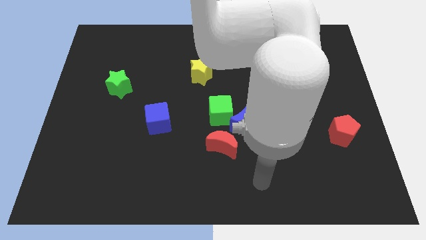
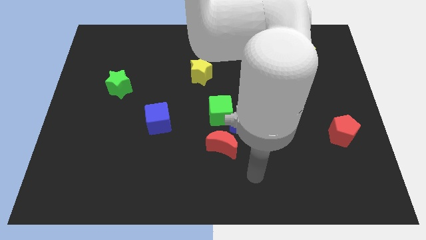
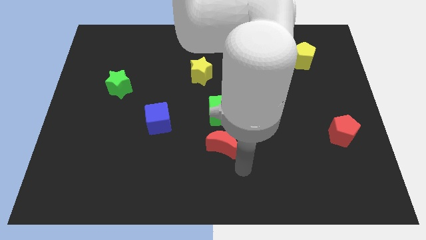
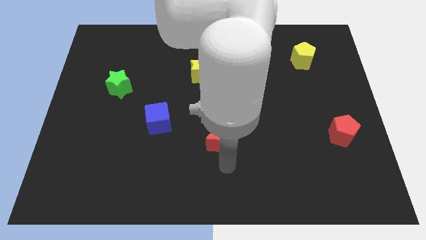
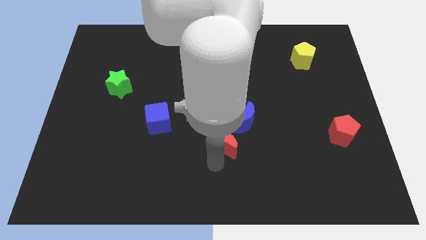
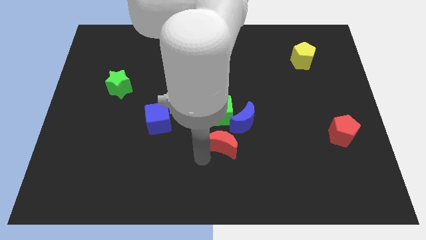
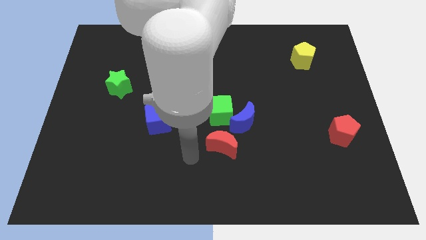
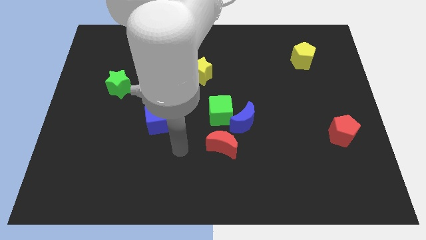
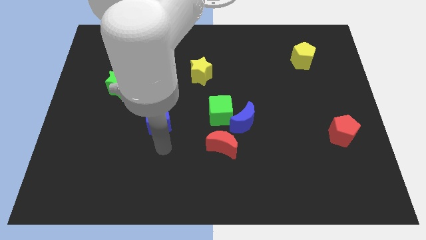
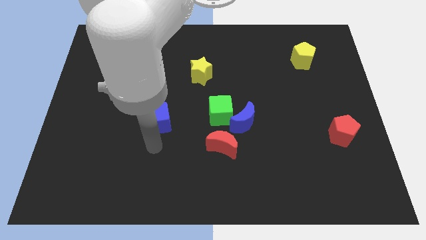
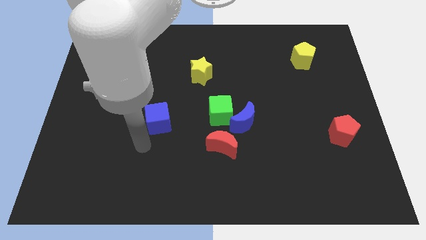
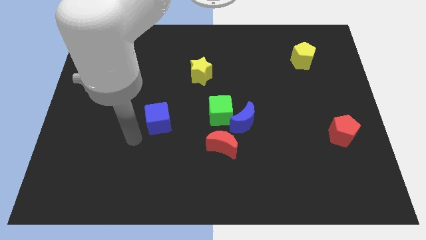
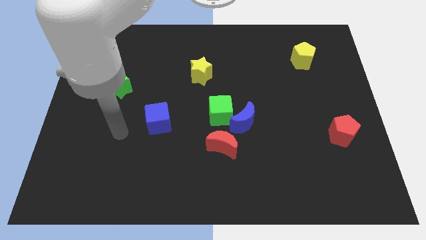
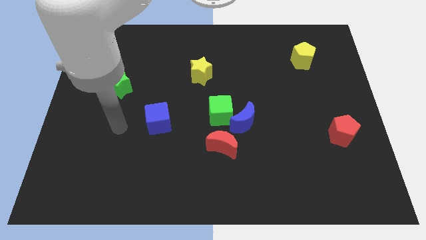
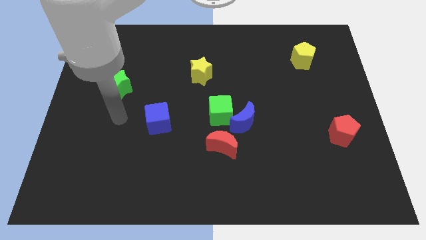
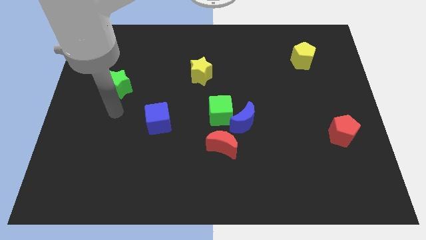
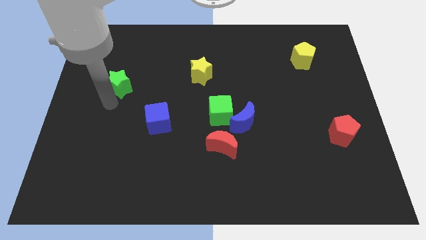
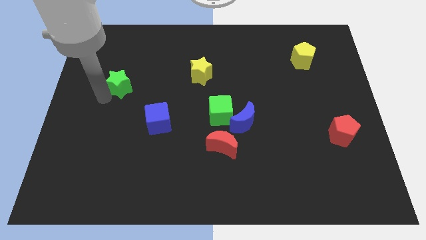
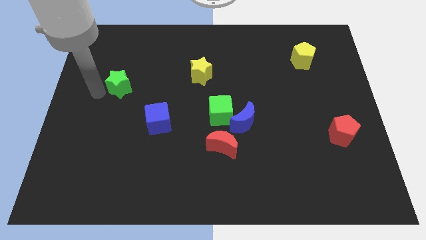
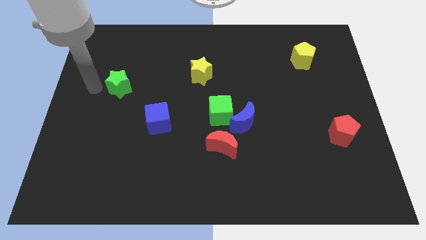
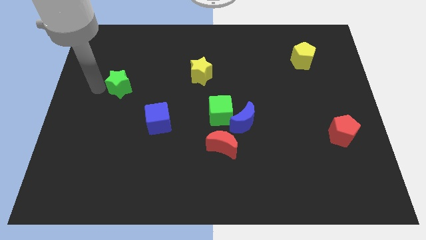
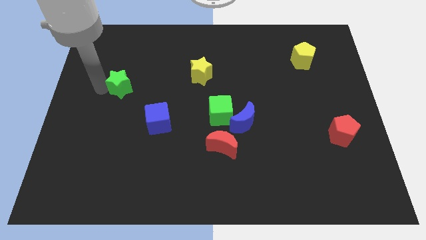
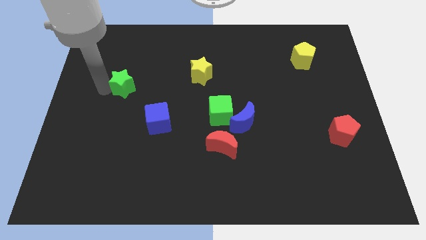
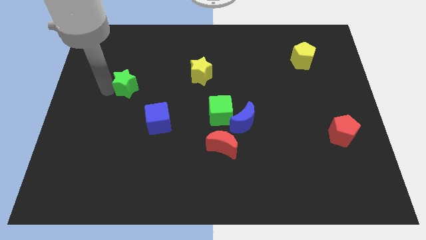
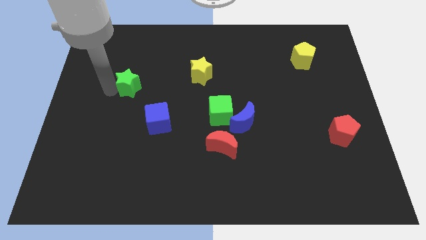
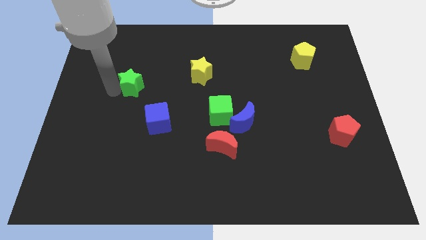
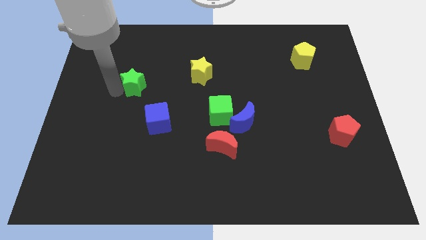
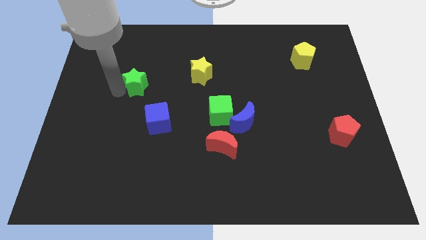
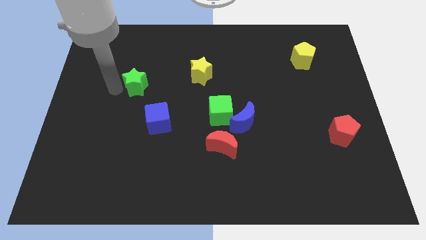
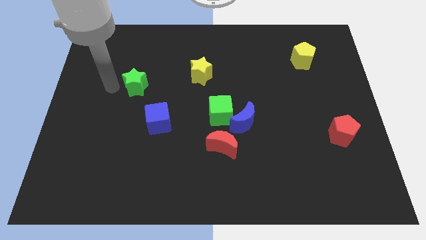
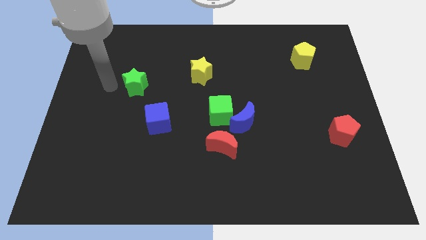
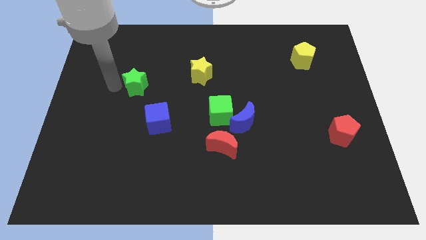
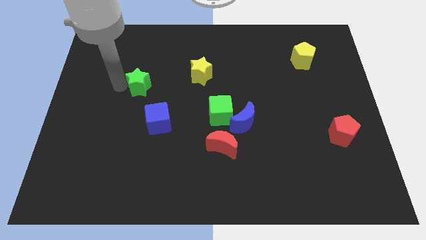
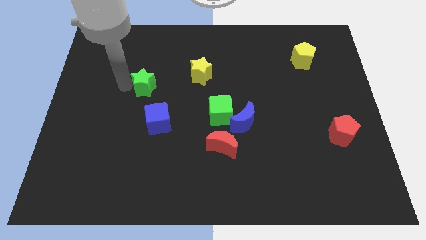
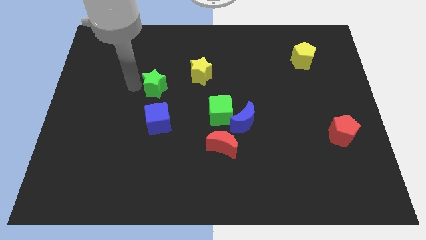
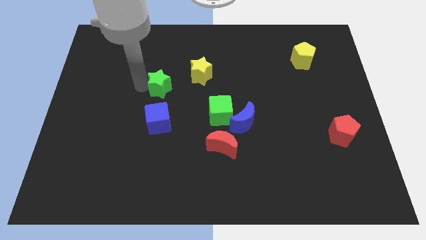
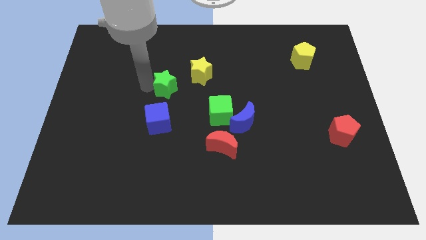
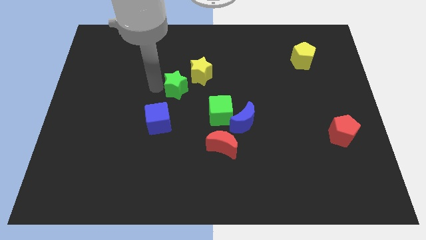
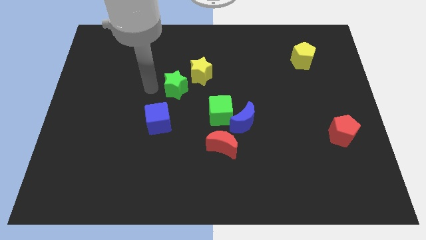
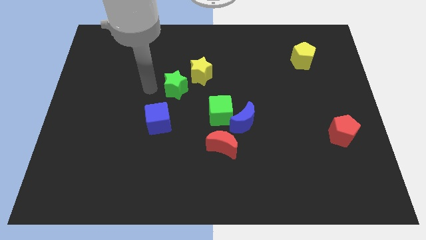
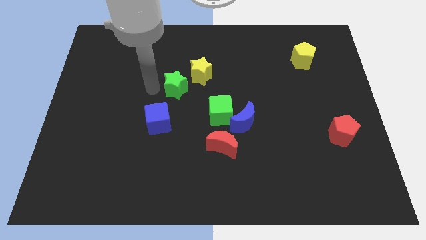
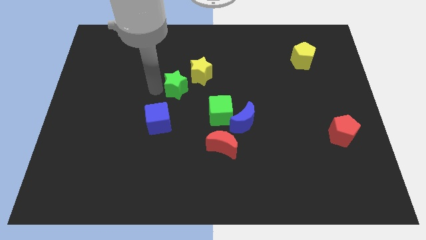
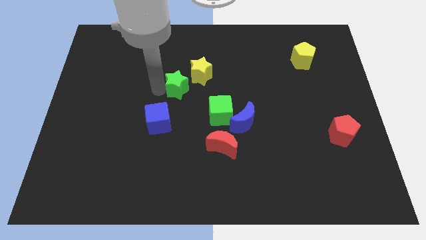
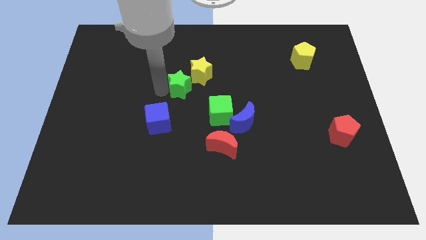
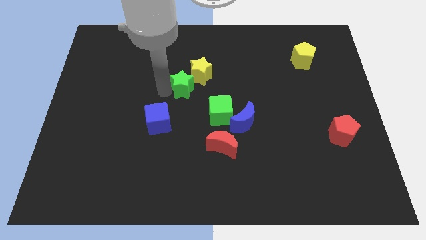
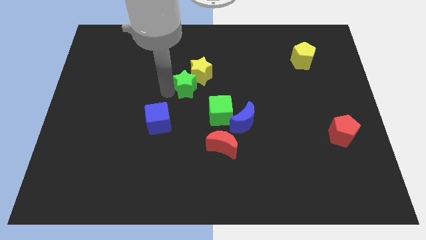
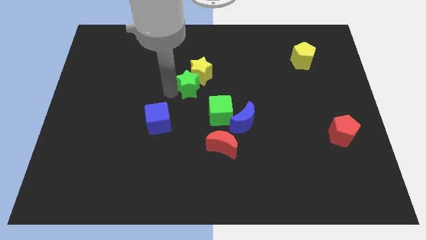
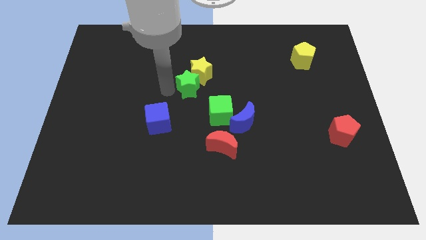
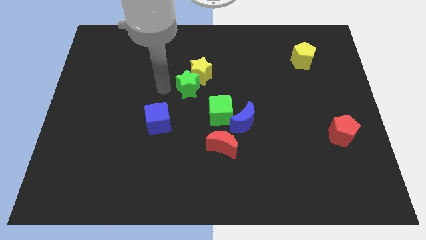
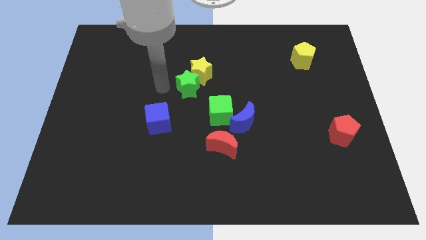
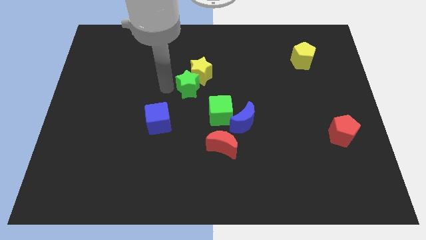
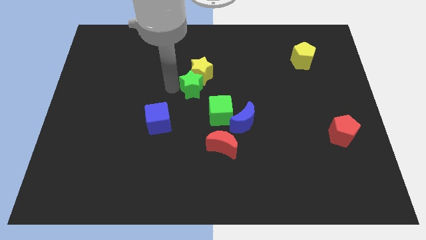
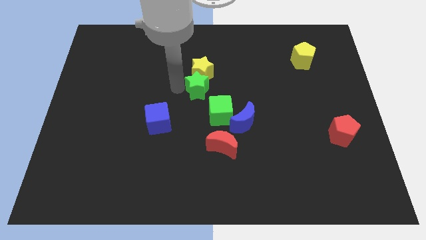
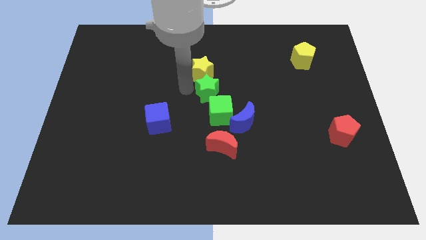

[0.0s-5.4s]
move the green star right

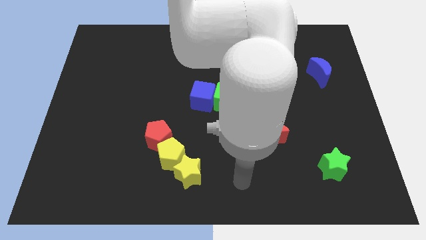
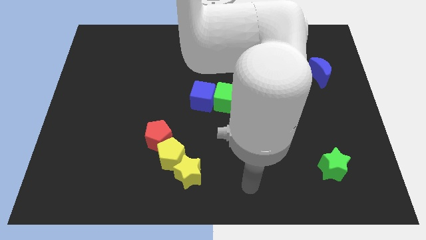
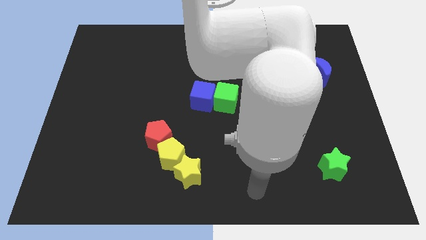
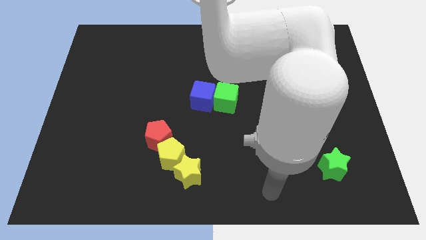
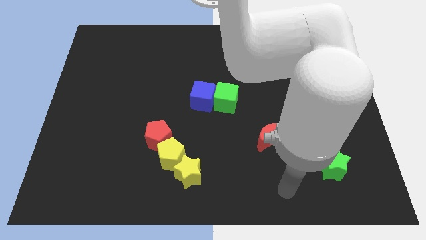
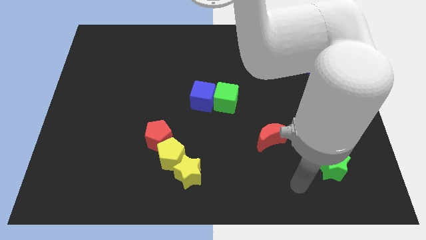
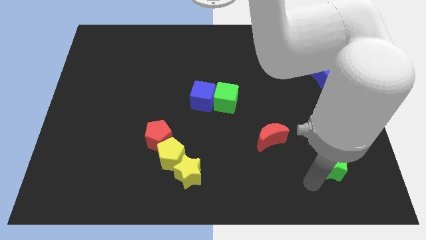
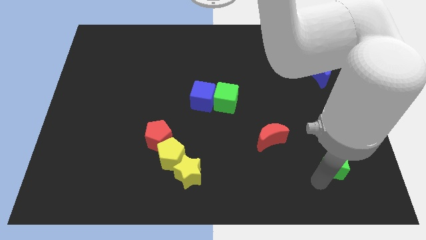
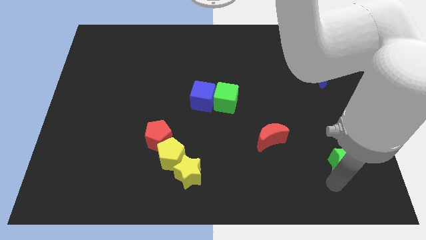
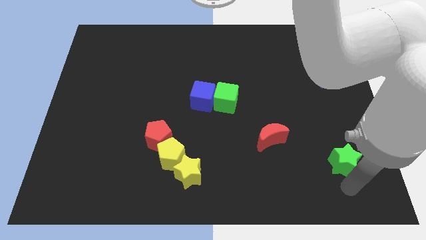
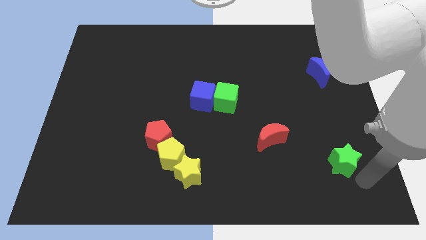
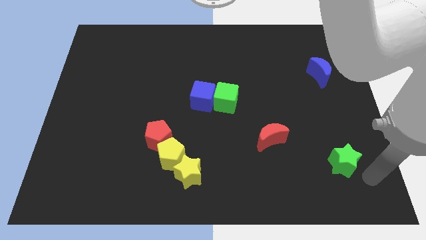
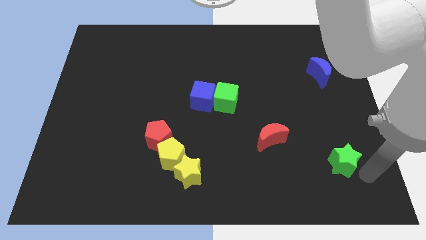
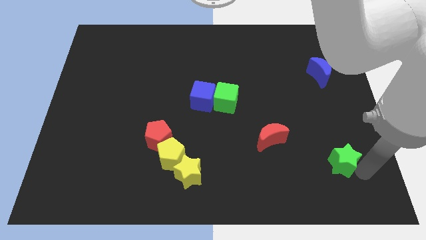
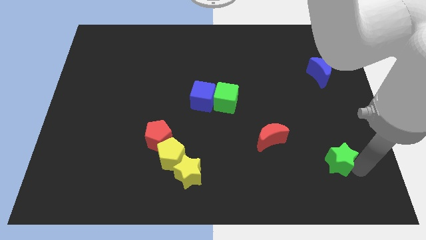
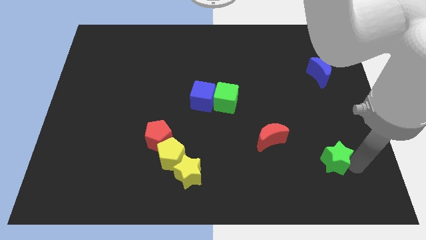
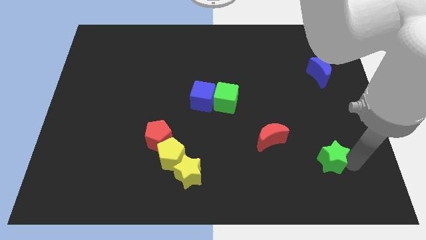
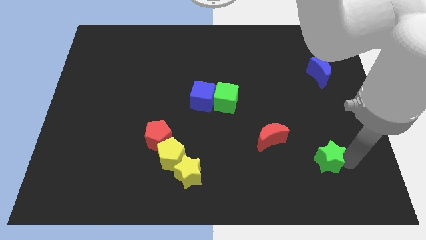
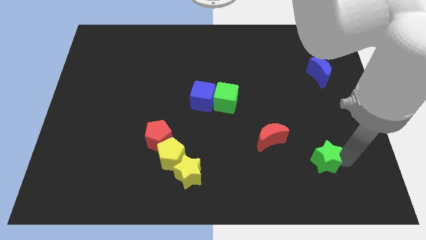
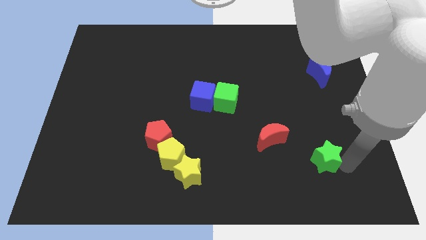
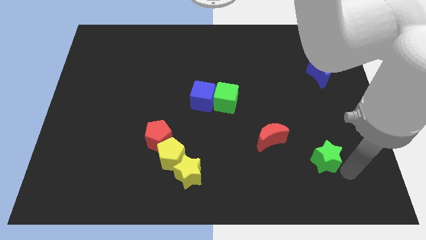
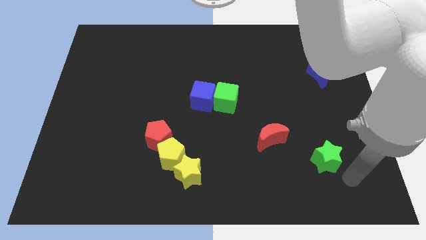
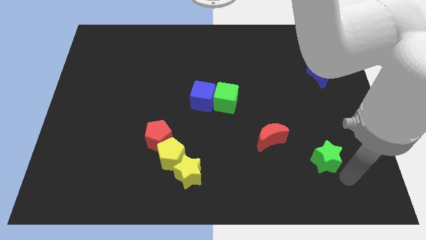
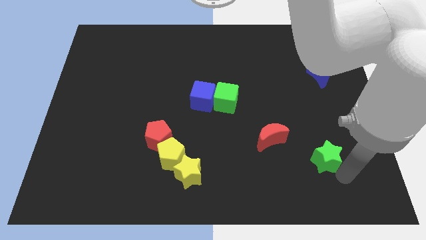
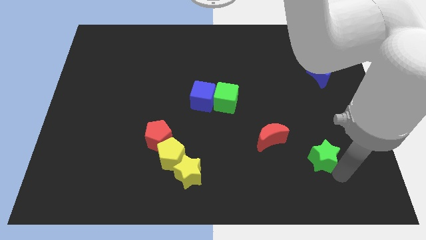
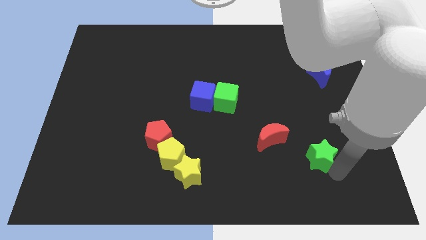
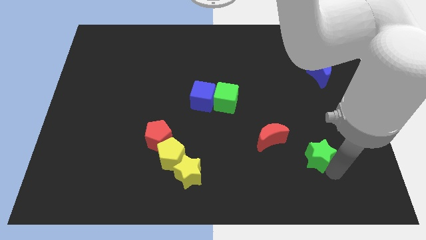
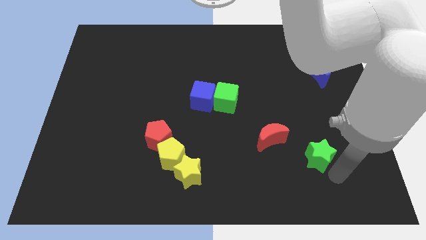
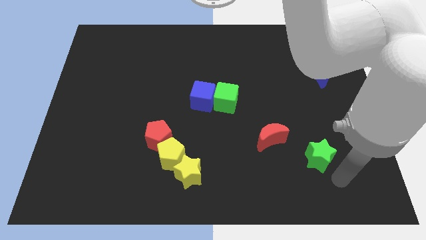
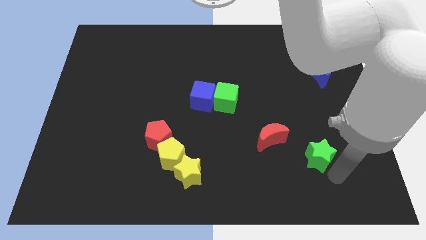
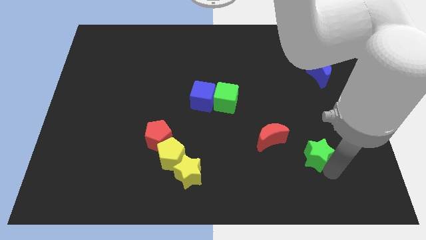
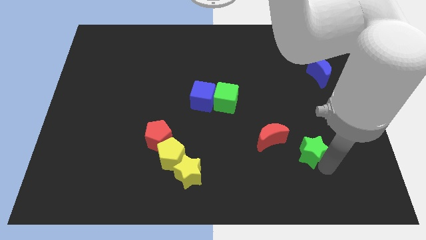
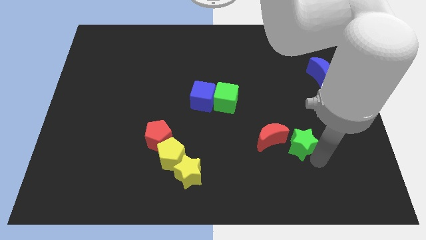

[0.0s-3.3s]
slightly move the green star up and to the left
